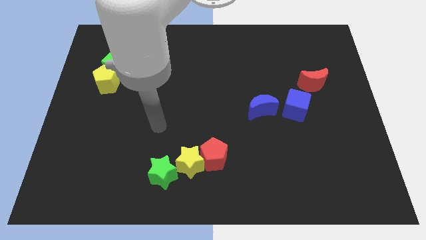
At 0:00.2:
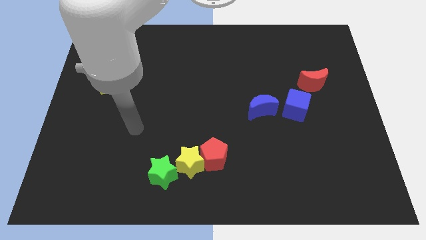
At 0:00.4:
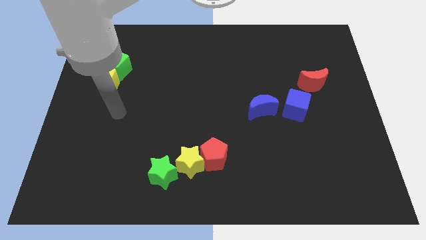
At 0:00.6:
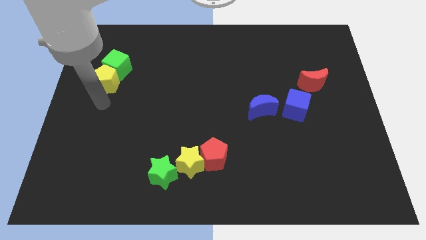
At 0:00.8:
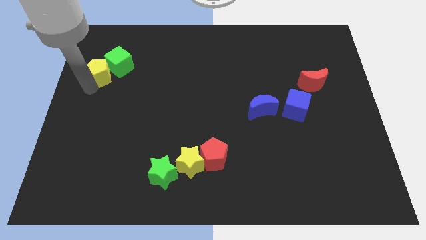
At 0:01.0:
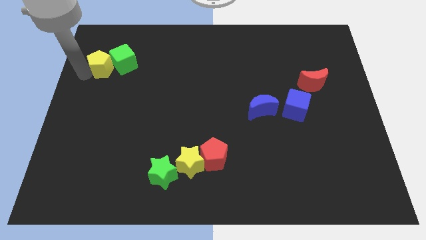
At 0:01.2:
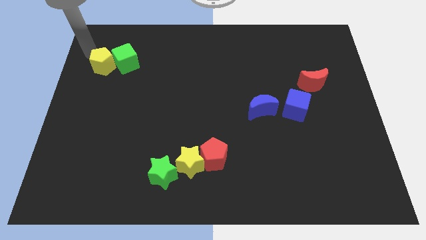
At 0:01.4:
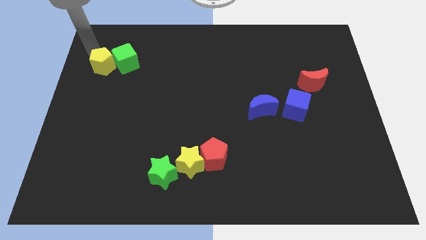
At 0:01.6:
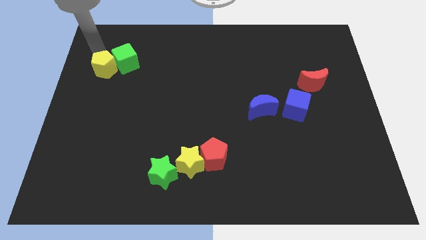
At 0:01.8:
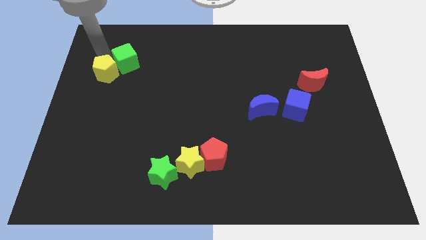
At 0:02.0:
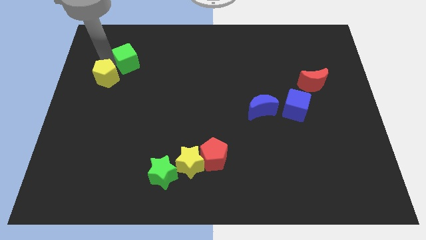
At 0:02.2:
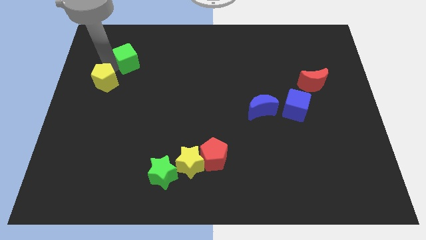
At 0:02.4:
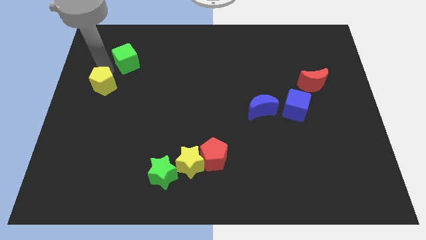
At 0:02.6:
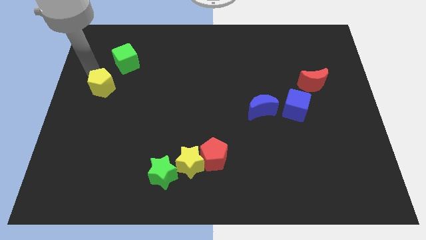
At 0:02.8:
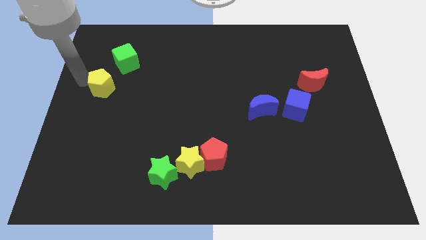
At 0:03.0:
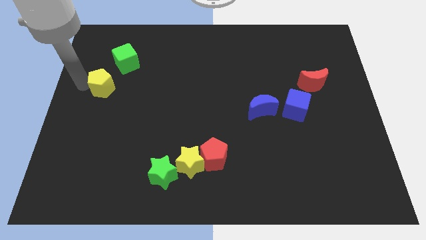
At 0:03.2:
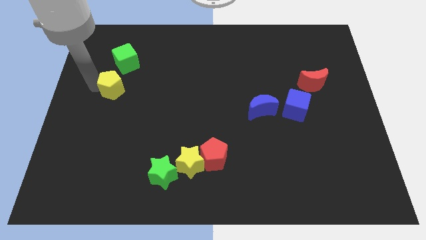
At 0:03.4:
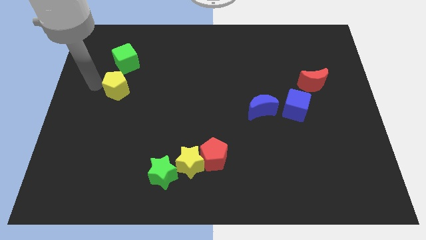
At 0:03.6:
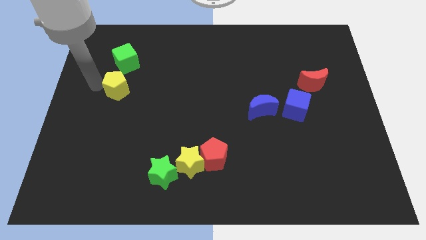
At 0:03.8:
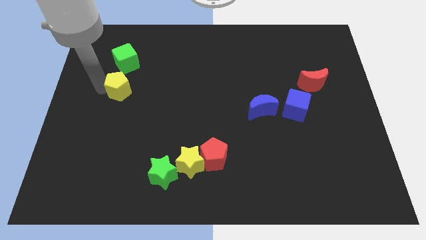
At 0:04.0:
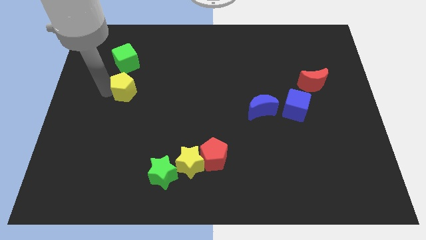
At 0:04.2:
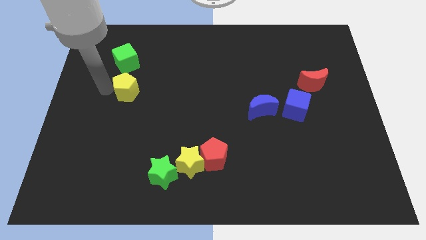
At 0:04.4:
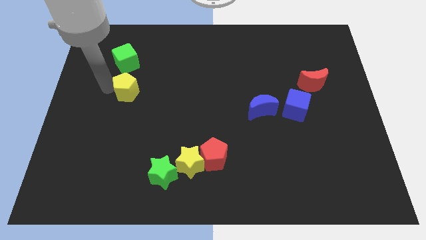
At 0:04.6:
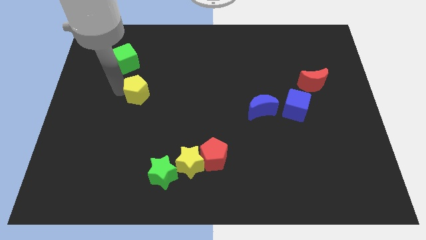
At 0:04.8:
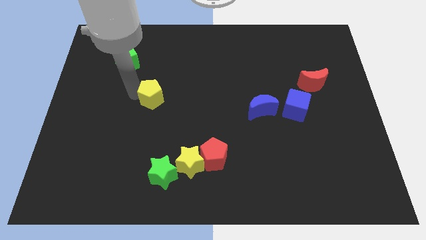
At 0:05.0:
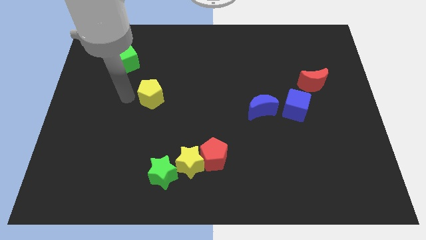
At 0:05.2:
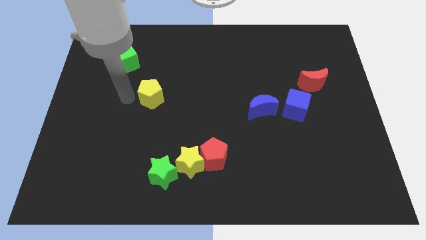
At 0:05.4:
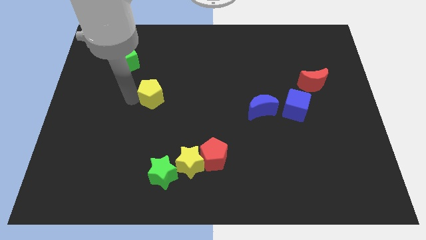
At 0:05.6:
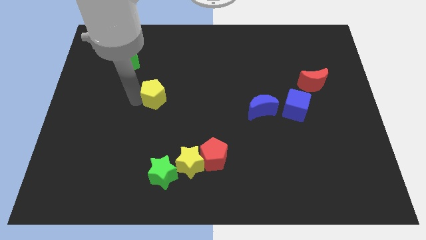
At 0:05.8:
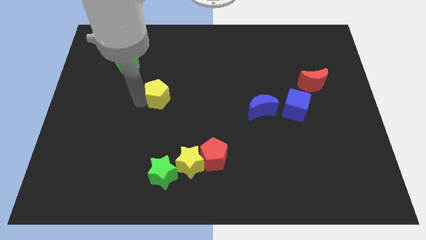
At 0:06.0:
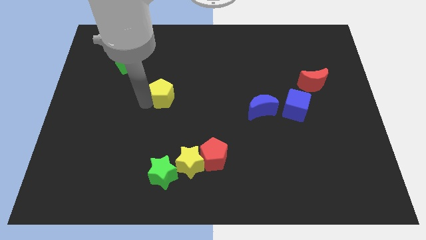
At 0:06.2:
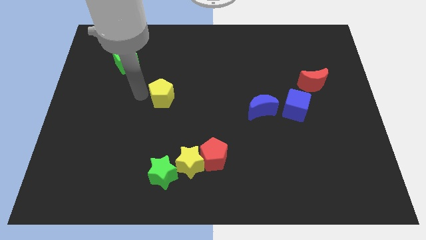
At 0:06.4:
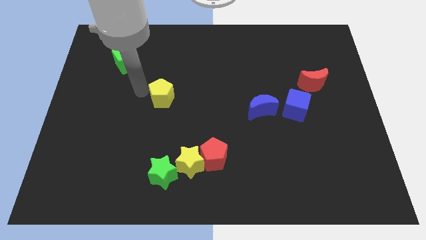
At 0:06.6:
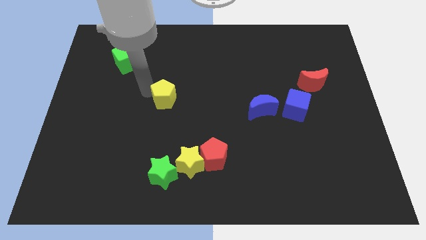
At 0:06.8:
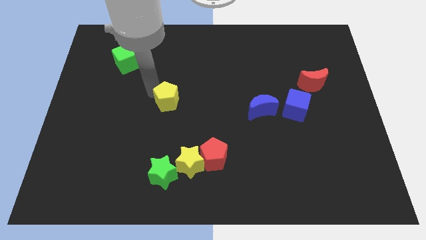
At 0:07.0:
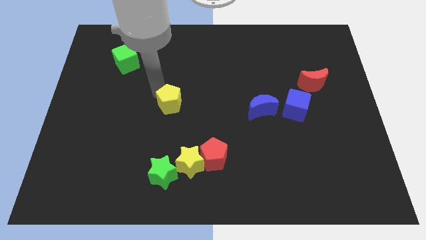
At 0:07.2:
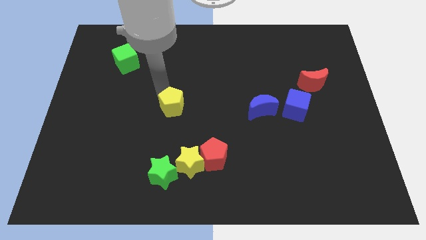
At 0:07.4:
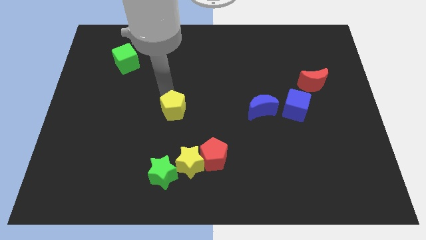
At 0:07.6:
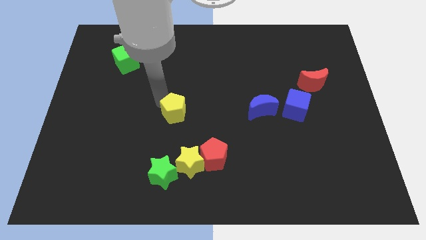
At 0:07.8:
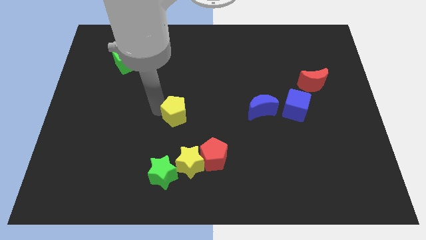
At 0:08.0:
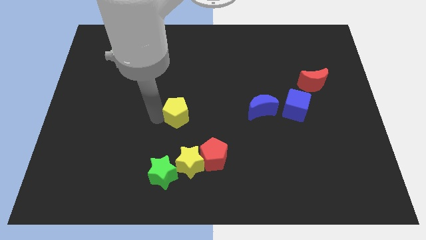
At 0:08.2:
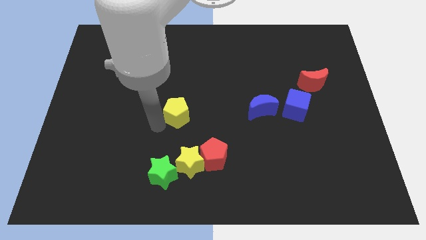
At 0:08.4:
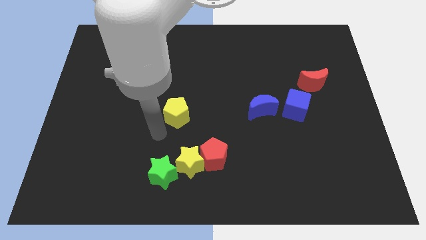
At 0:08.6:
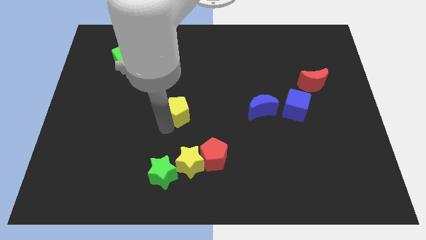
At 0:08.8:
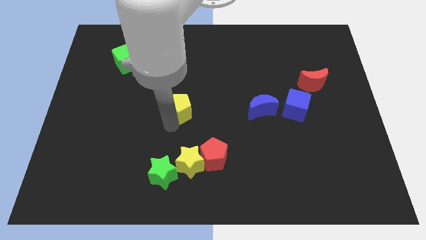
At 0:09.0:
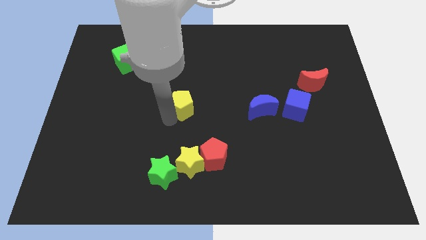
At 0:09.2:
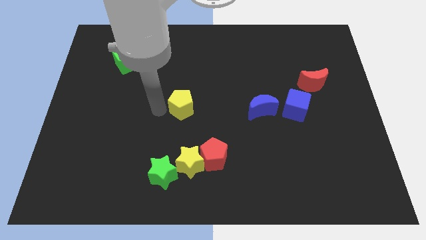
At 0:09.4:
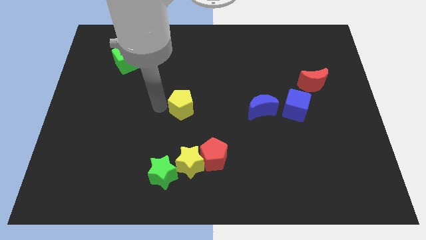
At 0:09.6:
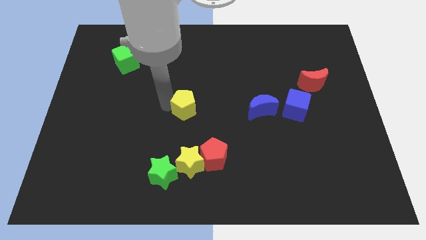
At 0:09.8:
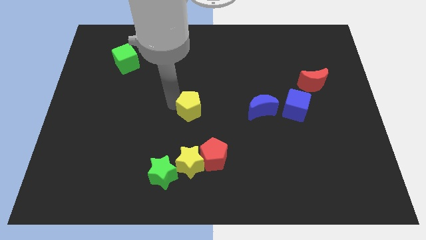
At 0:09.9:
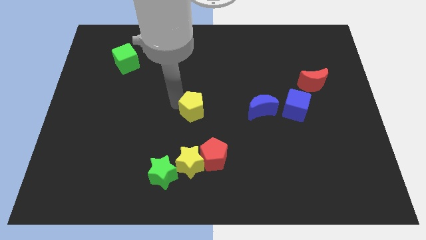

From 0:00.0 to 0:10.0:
slide the yellow pentagon left of the blue moon

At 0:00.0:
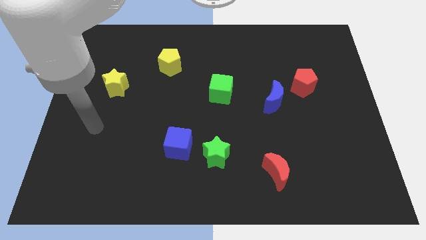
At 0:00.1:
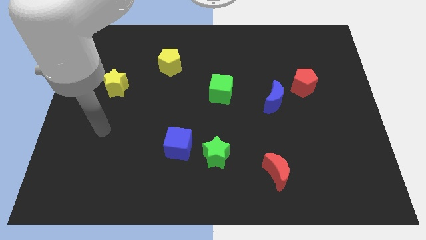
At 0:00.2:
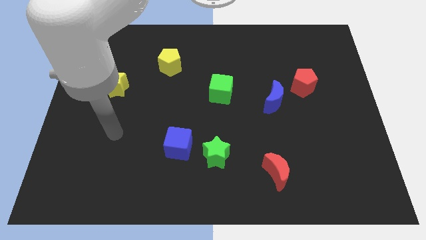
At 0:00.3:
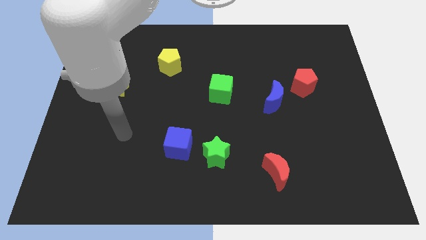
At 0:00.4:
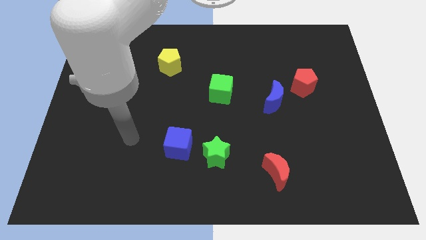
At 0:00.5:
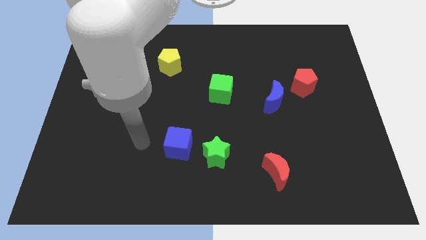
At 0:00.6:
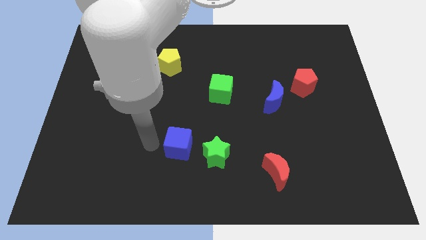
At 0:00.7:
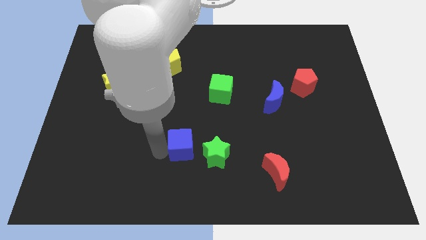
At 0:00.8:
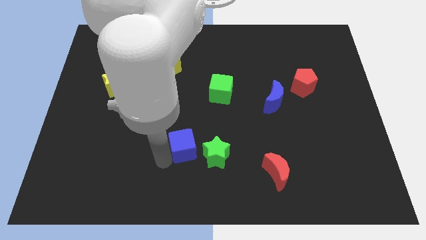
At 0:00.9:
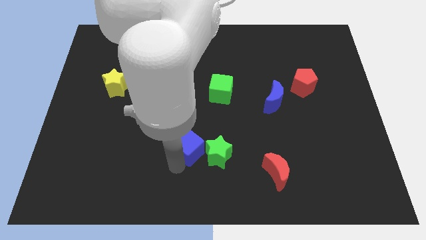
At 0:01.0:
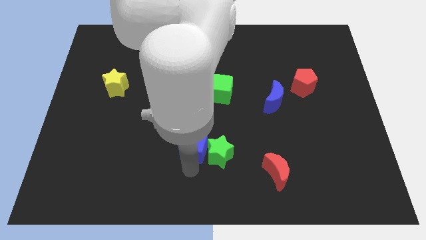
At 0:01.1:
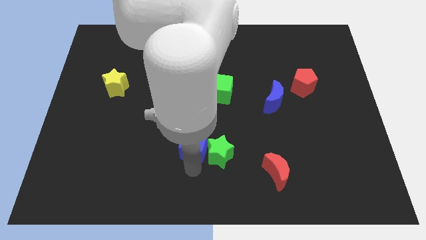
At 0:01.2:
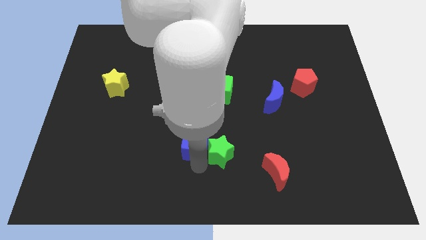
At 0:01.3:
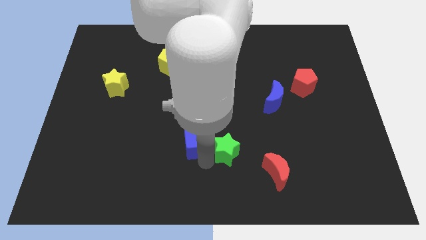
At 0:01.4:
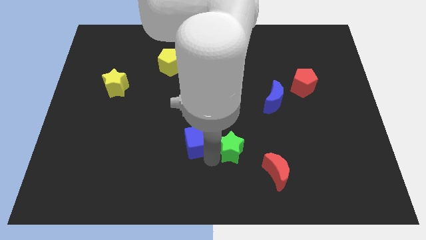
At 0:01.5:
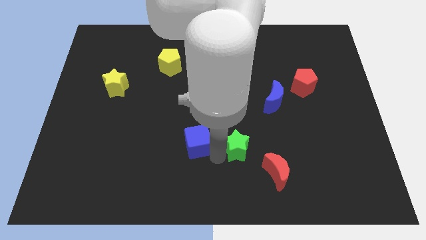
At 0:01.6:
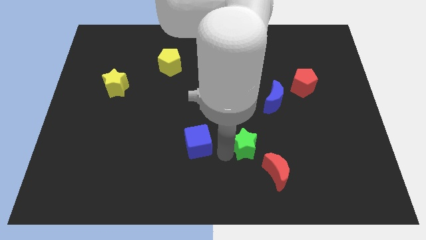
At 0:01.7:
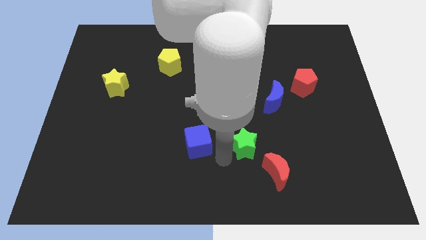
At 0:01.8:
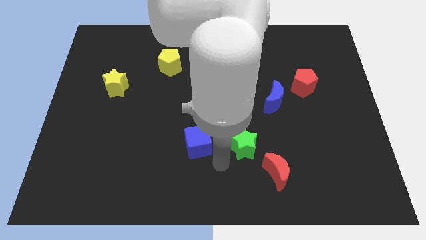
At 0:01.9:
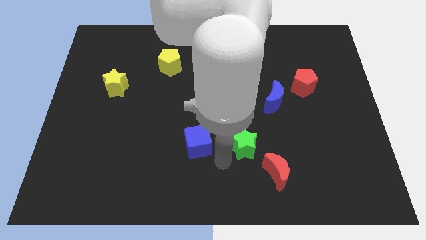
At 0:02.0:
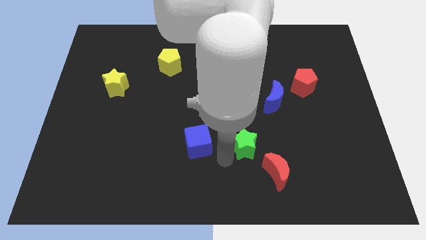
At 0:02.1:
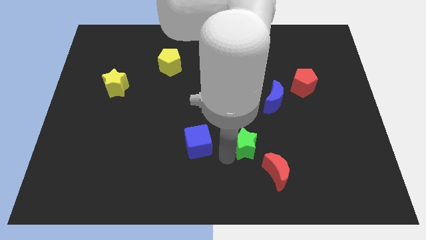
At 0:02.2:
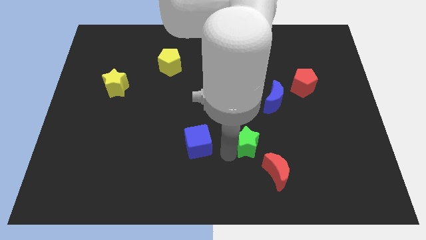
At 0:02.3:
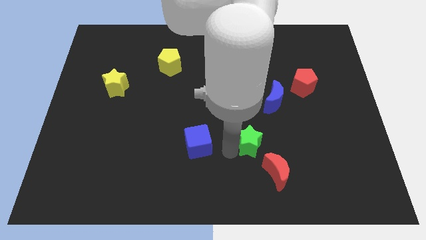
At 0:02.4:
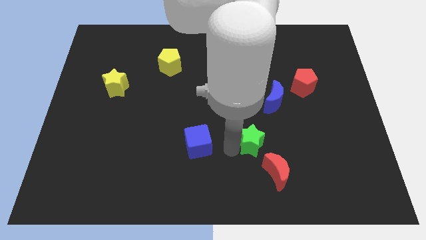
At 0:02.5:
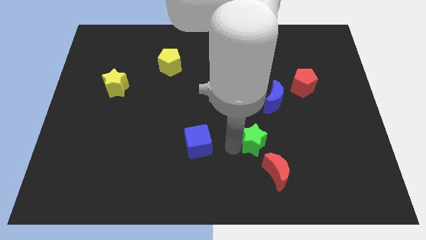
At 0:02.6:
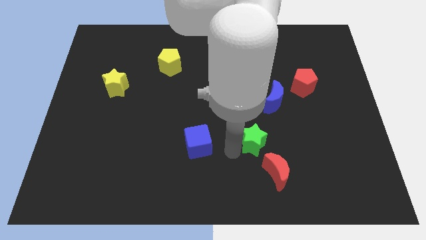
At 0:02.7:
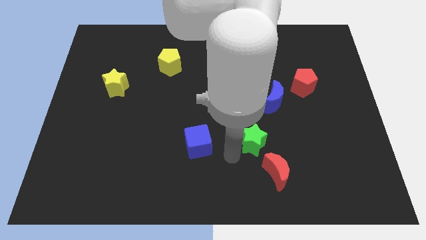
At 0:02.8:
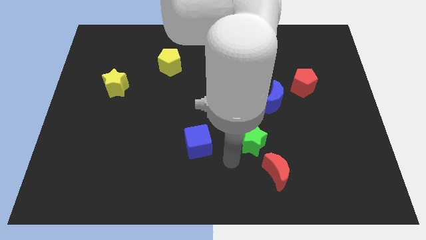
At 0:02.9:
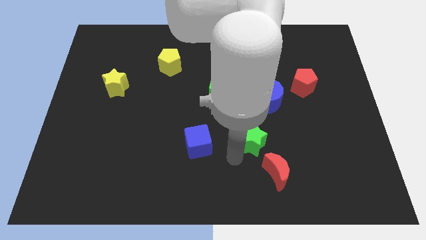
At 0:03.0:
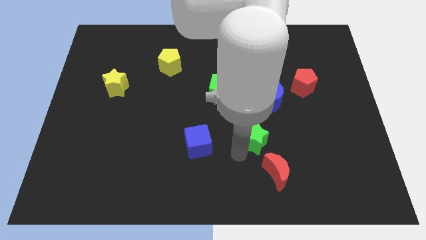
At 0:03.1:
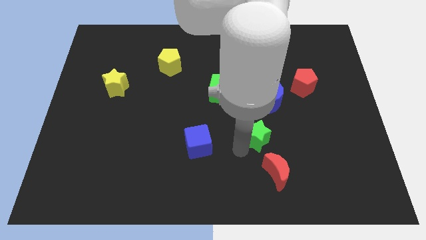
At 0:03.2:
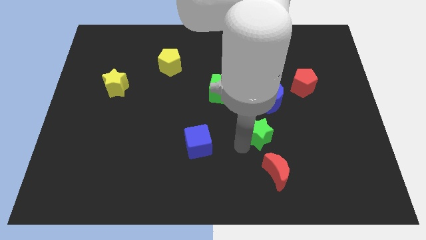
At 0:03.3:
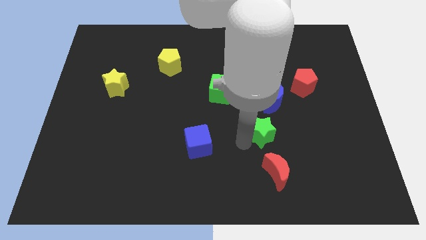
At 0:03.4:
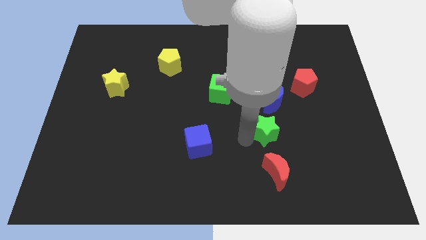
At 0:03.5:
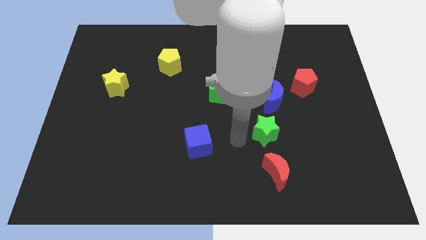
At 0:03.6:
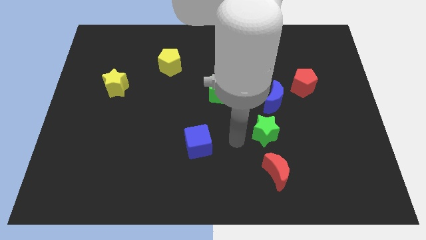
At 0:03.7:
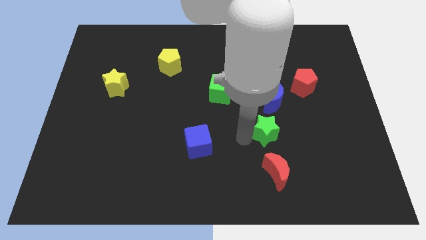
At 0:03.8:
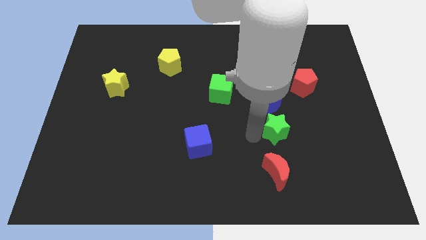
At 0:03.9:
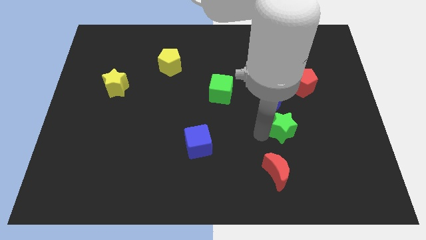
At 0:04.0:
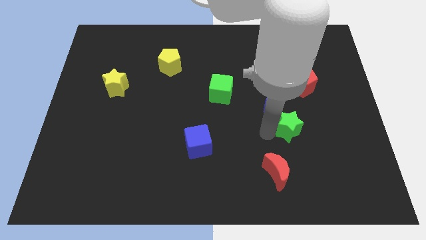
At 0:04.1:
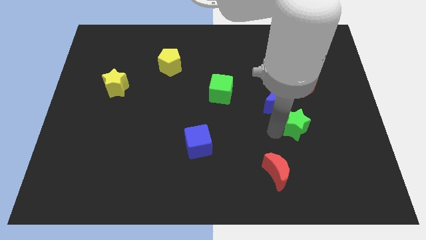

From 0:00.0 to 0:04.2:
move the green star below the red pentagon
